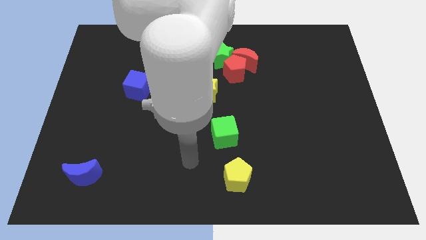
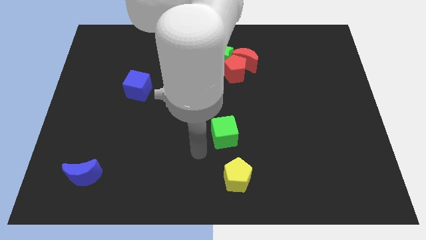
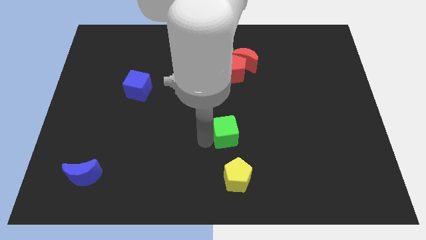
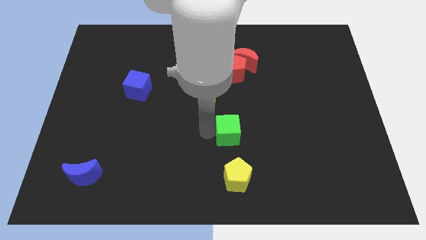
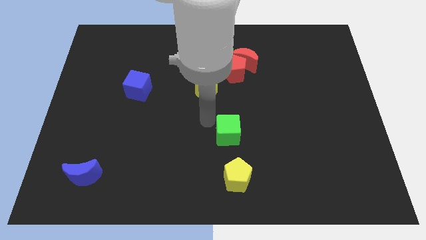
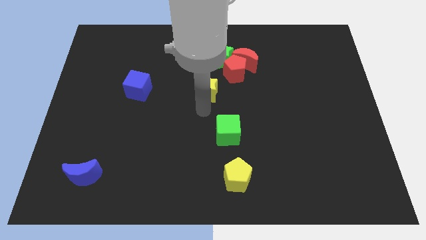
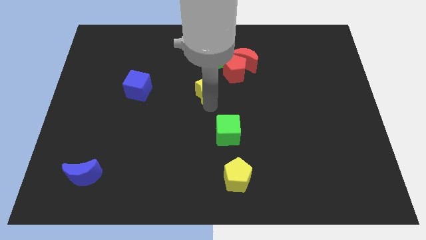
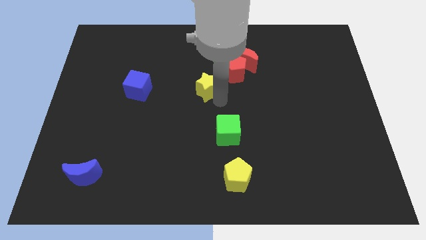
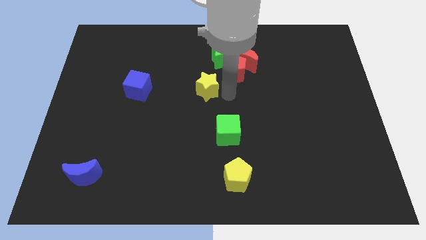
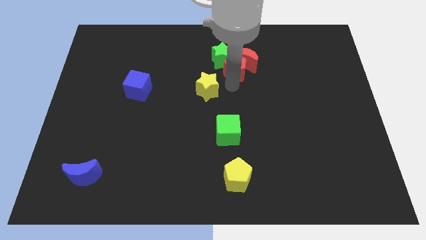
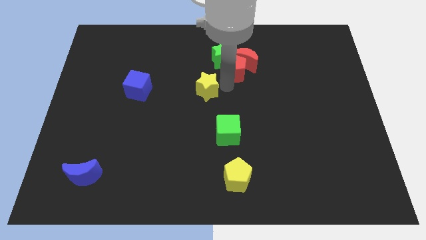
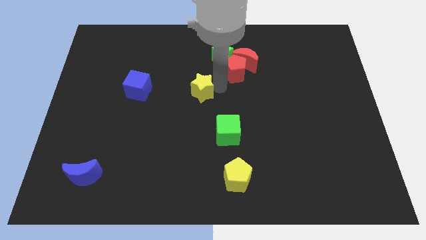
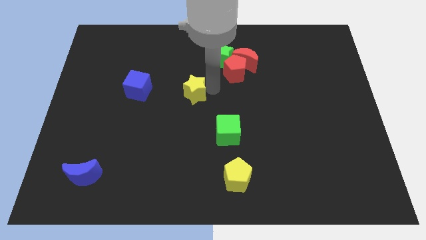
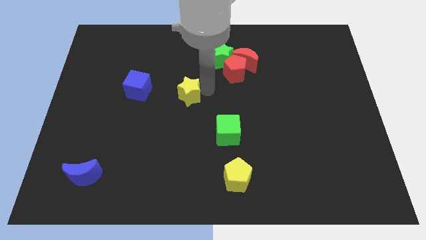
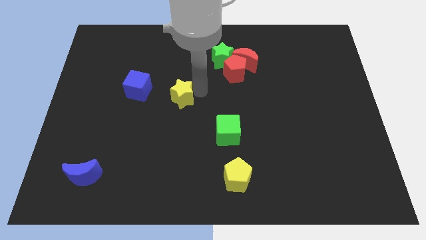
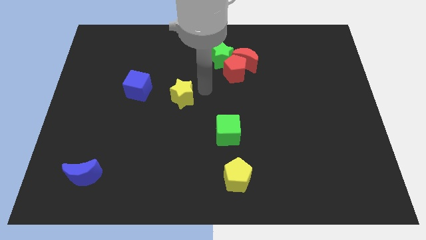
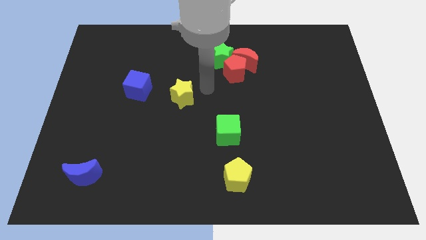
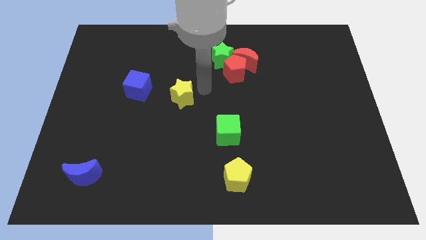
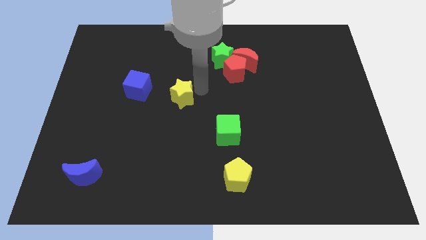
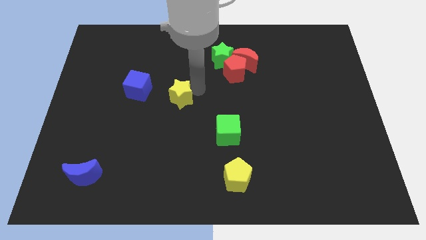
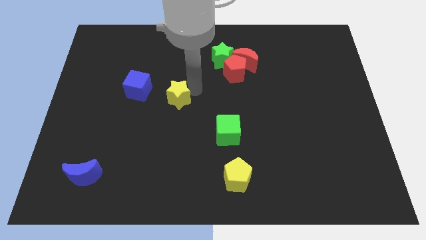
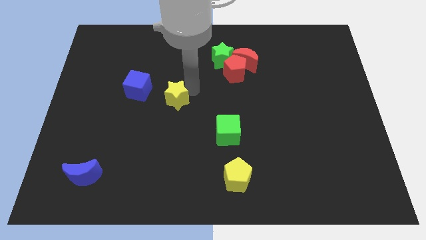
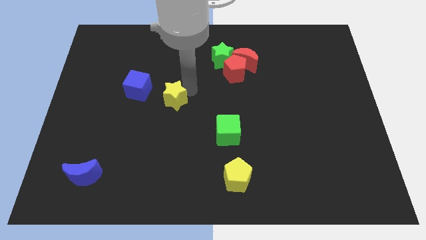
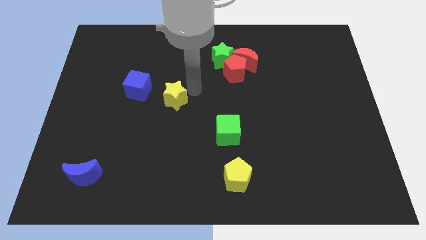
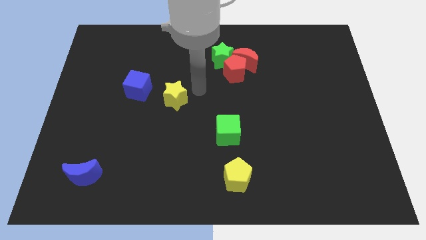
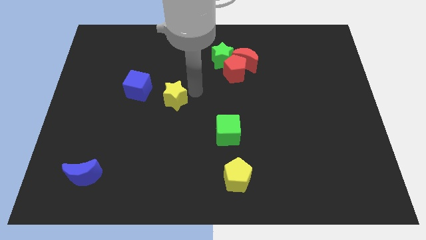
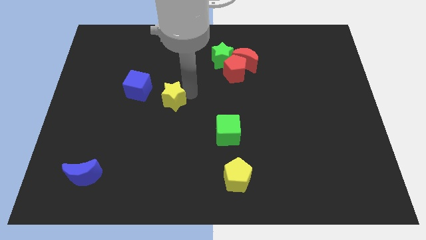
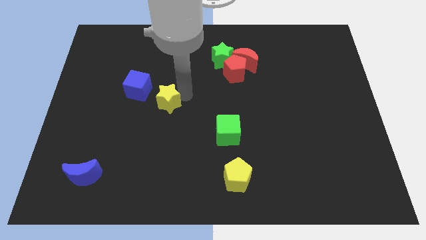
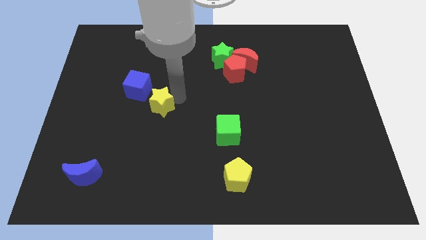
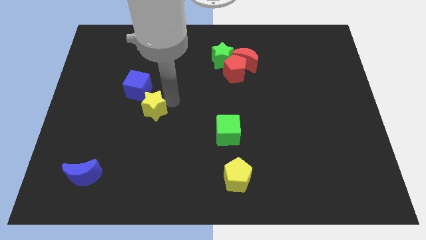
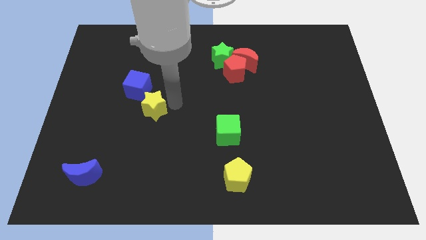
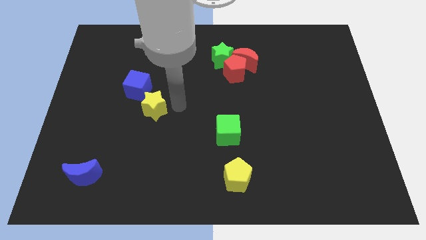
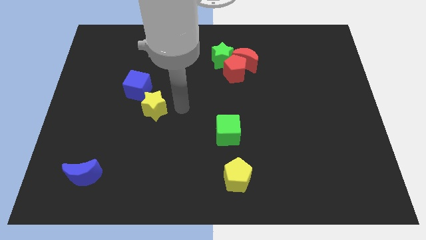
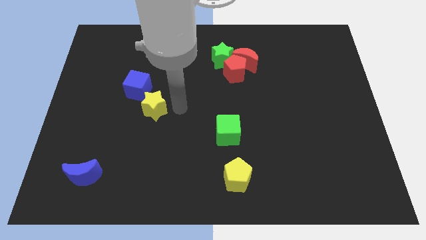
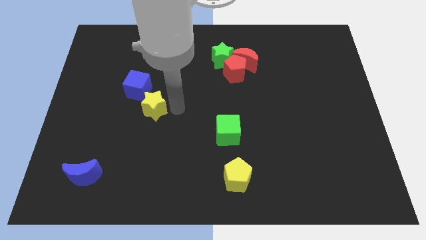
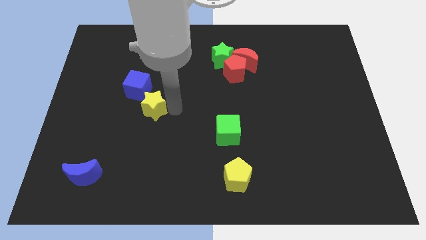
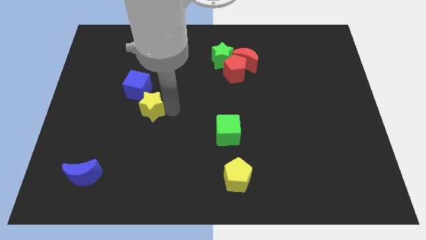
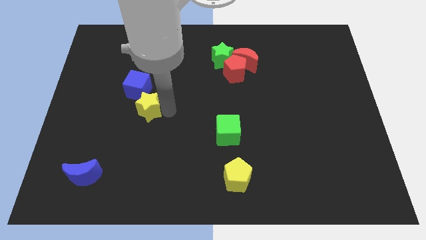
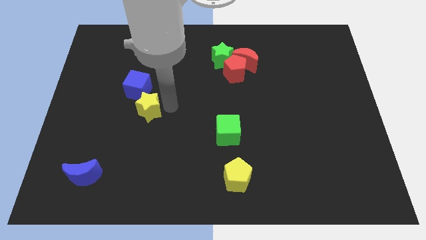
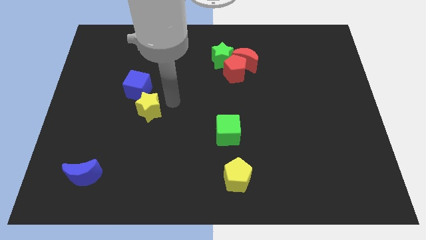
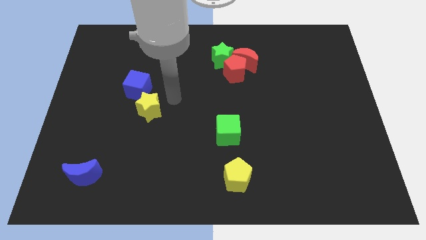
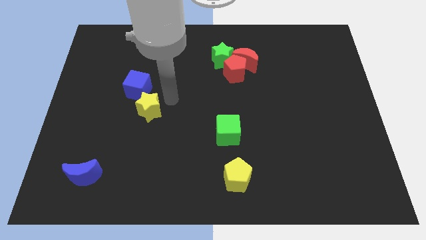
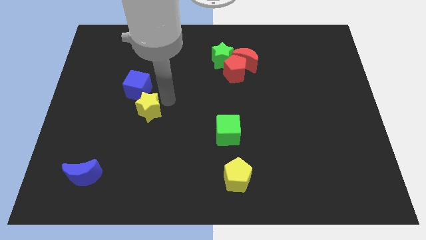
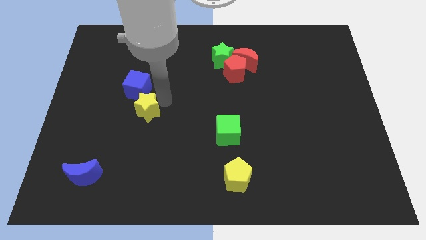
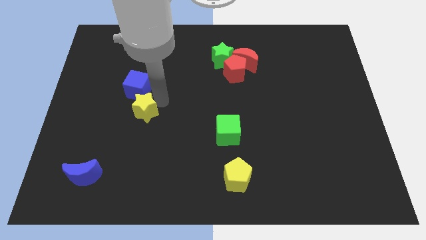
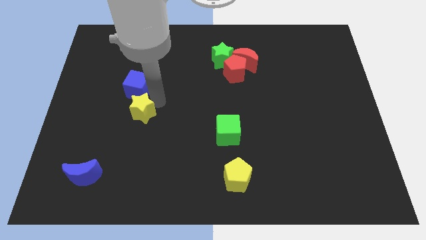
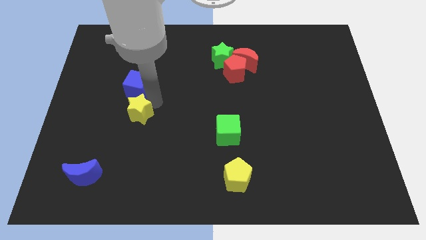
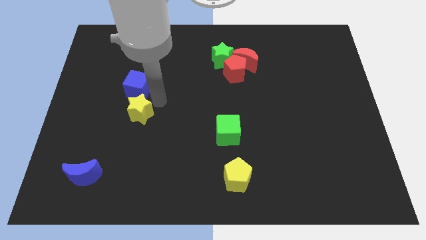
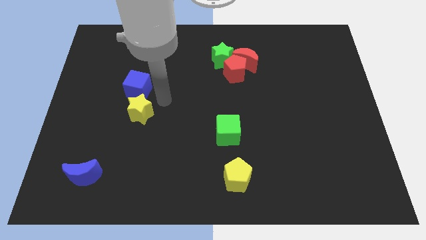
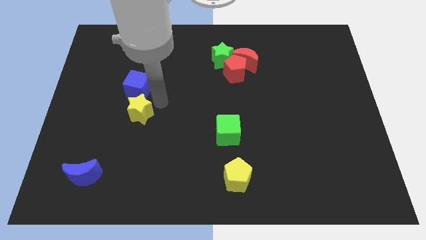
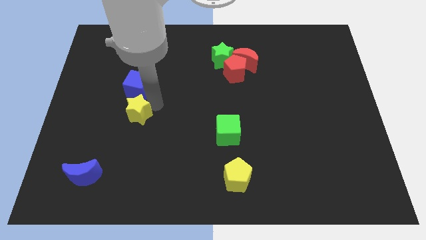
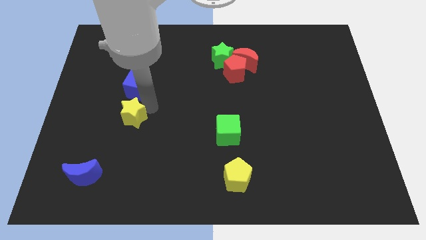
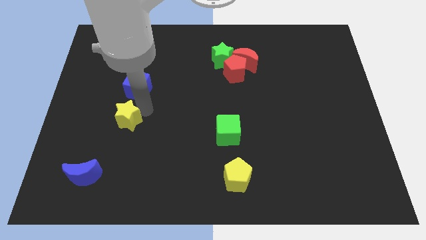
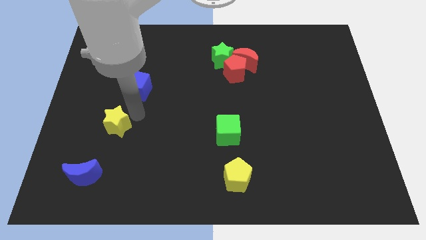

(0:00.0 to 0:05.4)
push the yellow star above the blue moon

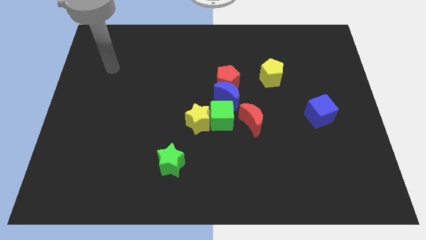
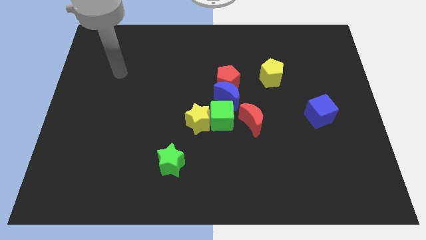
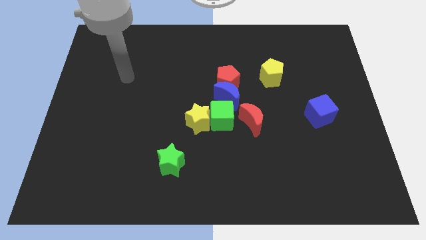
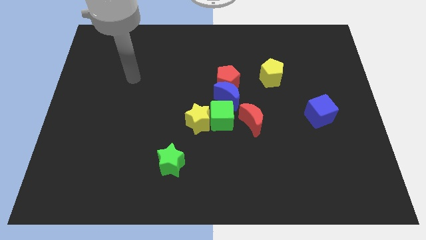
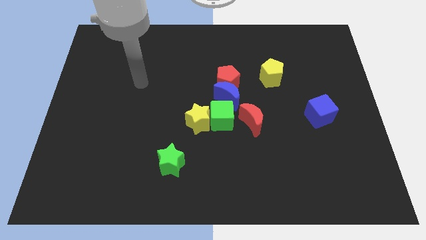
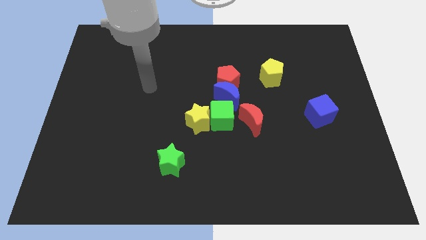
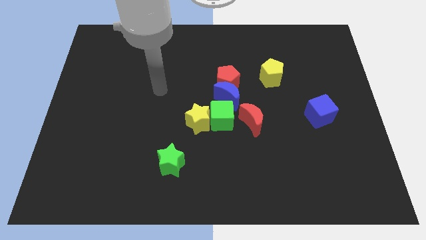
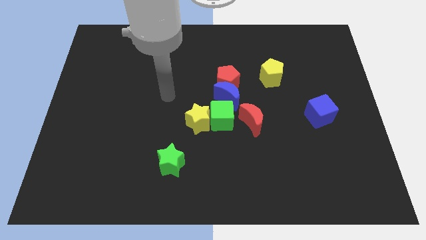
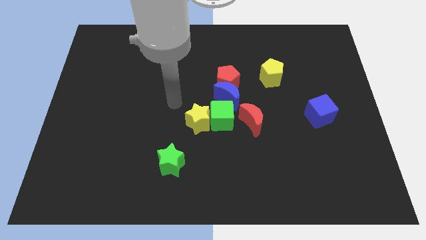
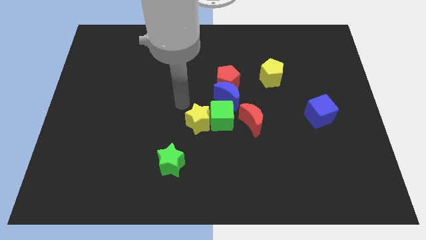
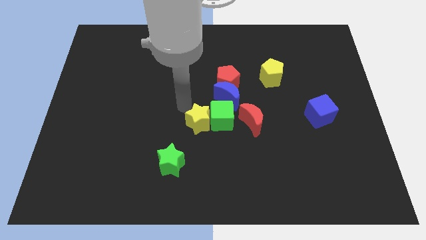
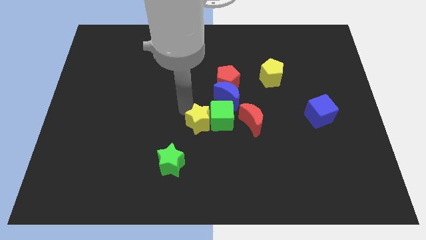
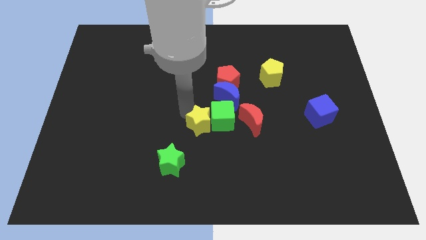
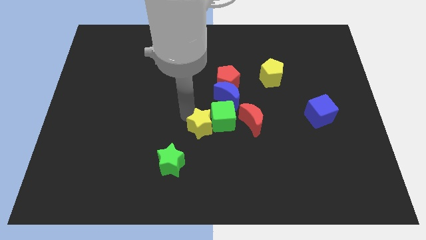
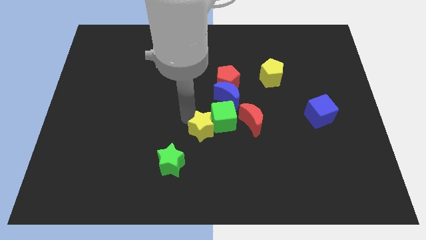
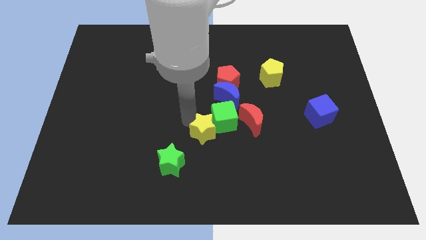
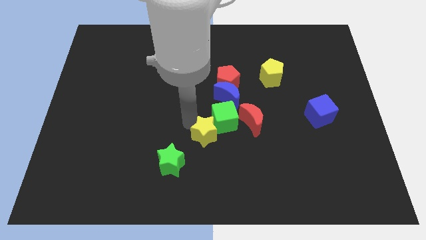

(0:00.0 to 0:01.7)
put the yellow star to the bottom side of the green cube
